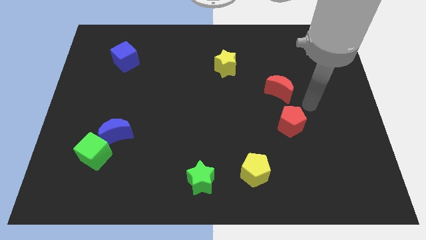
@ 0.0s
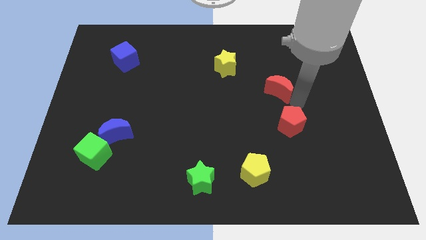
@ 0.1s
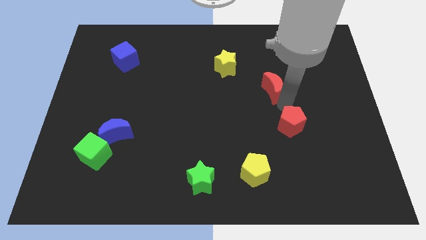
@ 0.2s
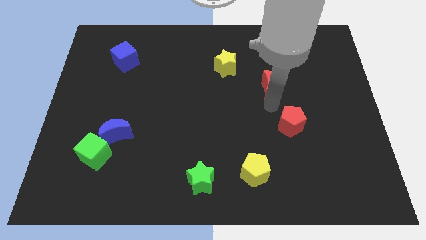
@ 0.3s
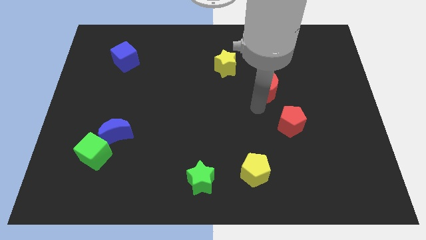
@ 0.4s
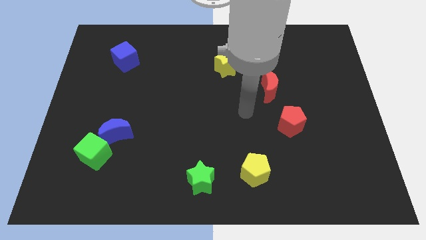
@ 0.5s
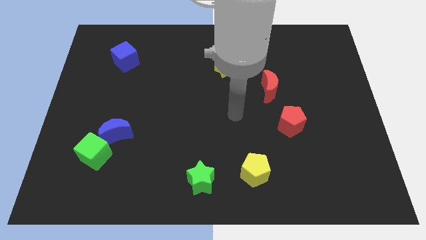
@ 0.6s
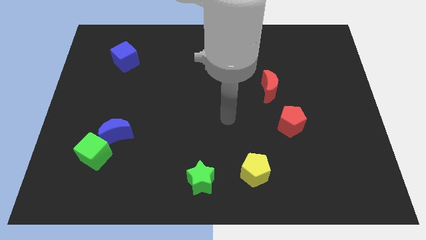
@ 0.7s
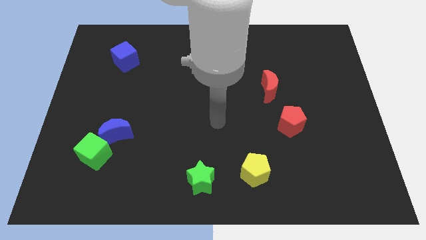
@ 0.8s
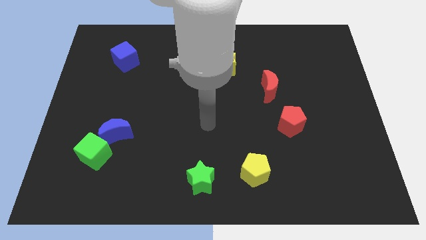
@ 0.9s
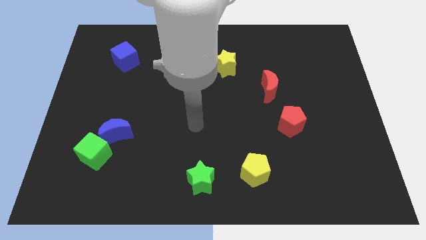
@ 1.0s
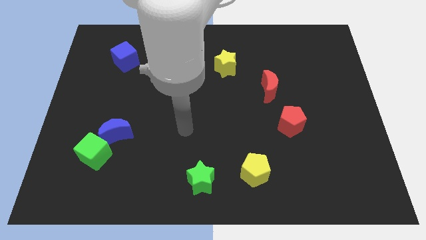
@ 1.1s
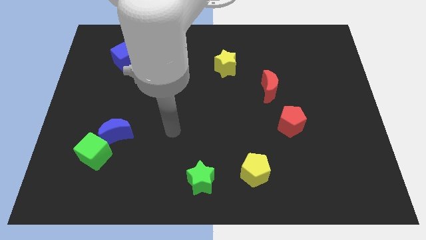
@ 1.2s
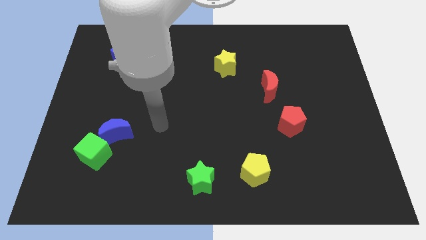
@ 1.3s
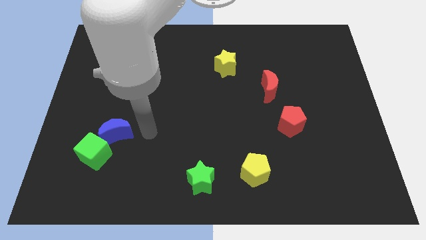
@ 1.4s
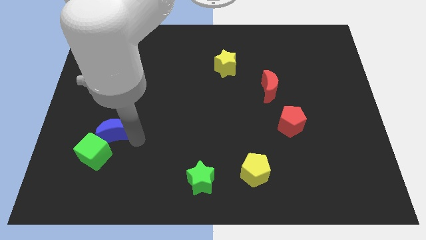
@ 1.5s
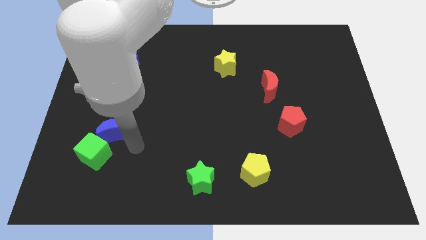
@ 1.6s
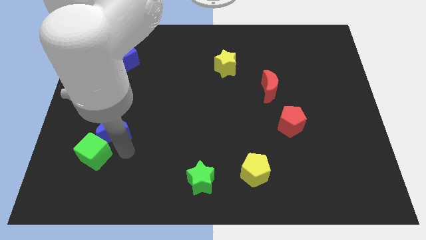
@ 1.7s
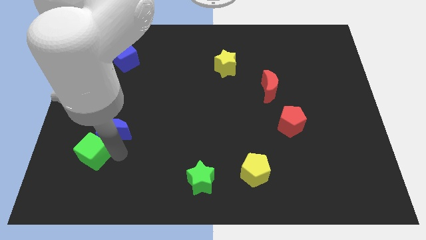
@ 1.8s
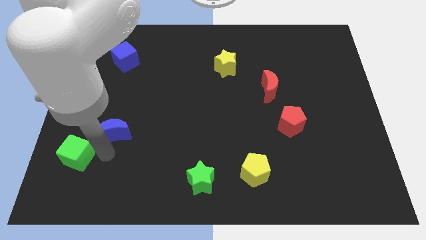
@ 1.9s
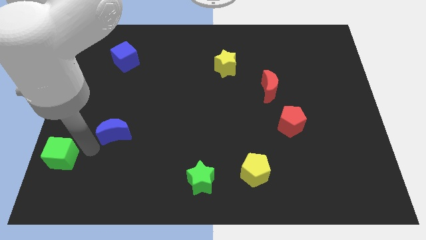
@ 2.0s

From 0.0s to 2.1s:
move the blue moon away from the green cube

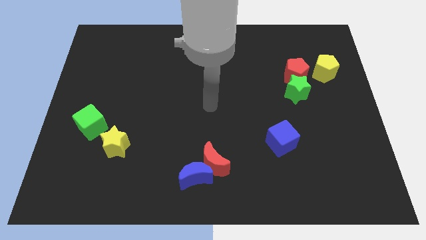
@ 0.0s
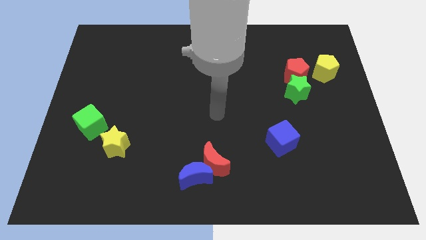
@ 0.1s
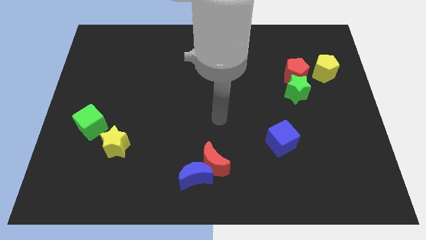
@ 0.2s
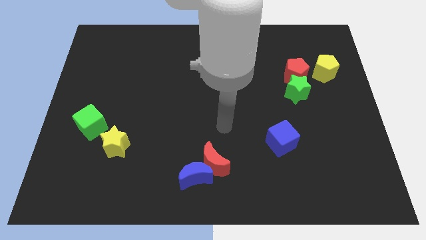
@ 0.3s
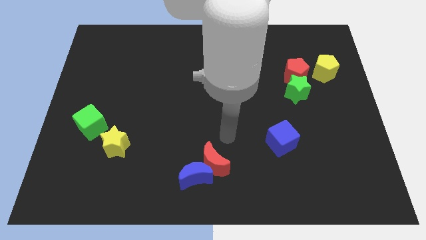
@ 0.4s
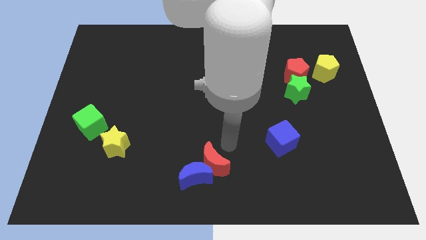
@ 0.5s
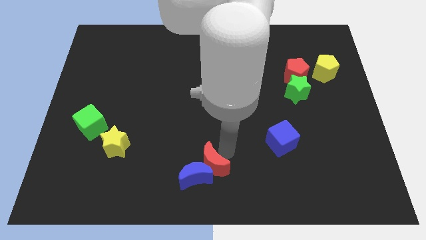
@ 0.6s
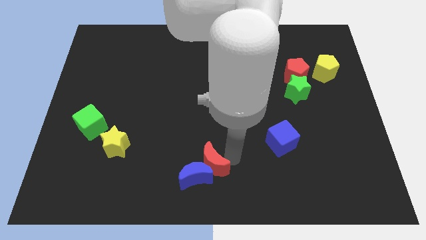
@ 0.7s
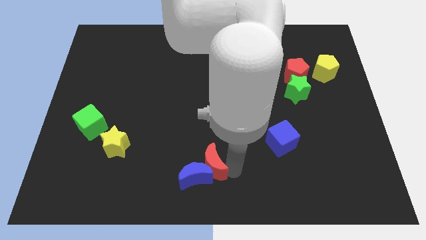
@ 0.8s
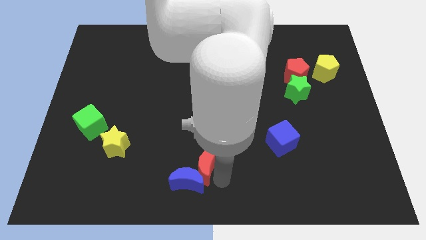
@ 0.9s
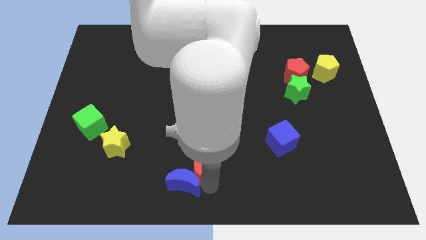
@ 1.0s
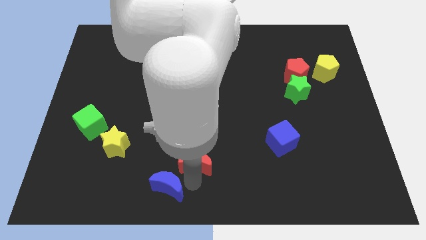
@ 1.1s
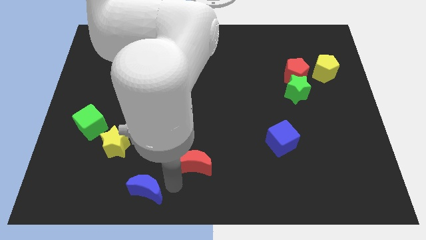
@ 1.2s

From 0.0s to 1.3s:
pull the red moon apart from the blue moon

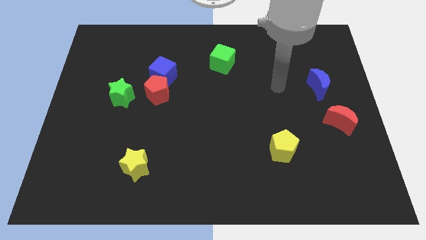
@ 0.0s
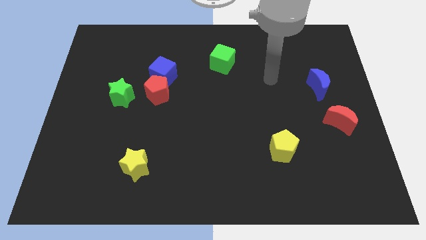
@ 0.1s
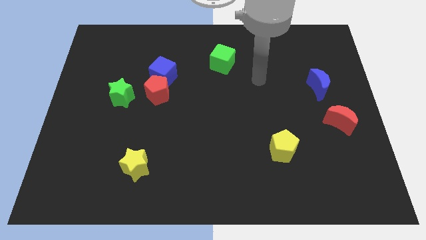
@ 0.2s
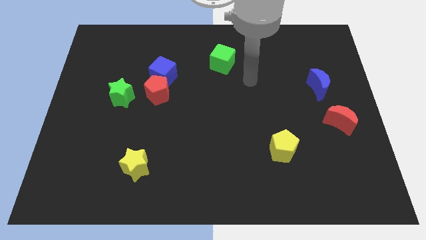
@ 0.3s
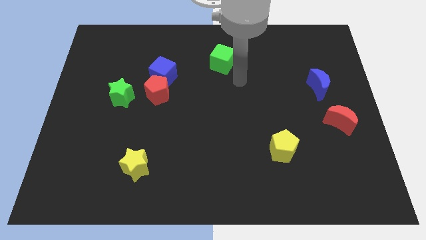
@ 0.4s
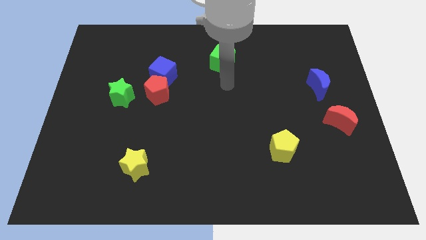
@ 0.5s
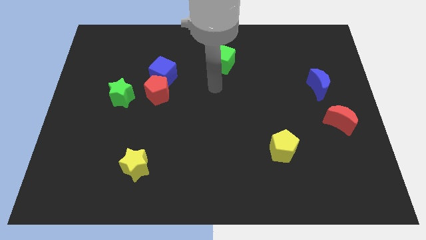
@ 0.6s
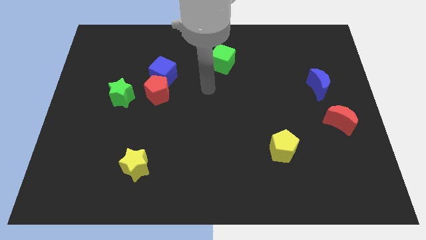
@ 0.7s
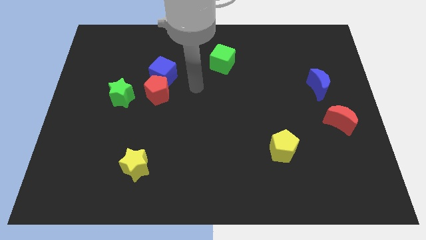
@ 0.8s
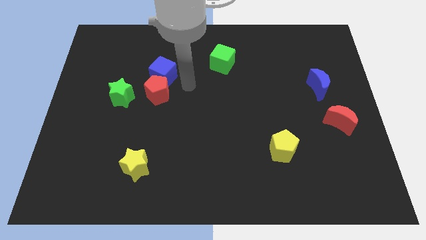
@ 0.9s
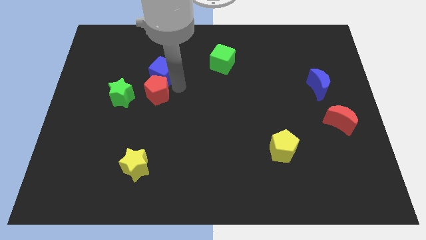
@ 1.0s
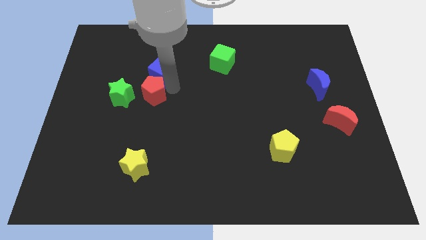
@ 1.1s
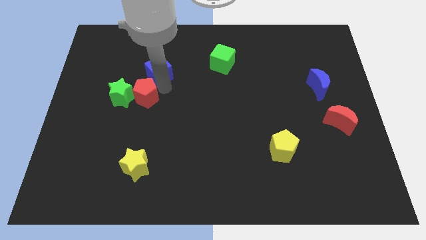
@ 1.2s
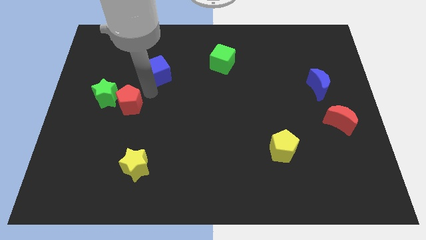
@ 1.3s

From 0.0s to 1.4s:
separate the blue cube from the red pentagon

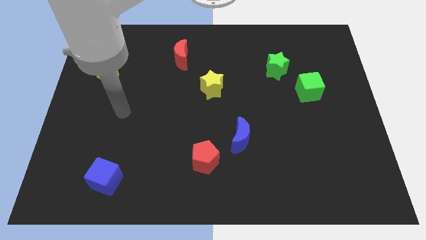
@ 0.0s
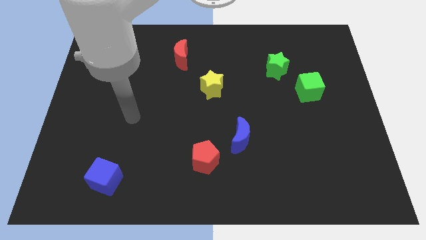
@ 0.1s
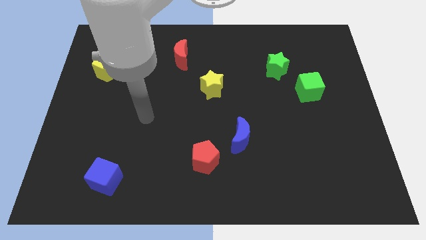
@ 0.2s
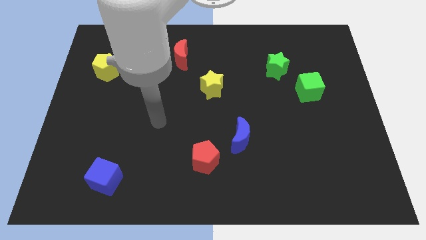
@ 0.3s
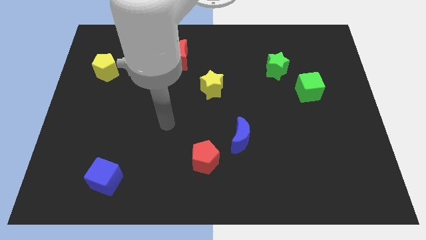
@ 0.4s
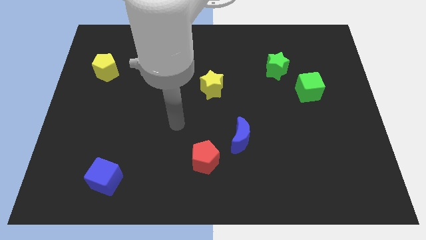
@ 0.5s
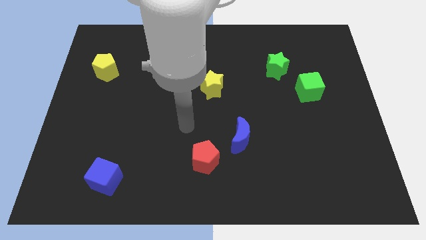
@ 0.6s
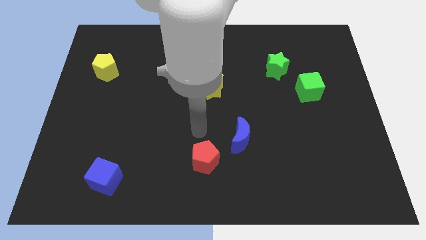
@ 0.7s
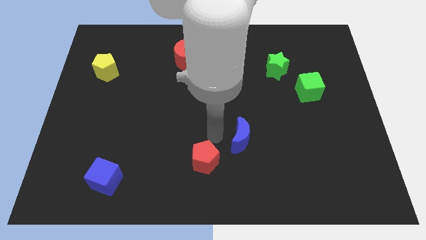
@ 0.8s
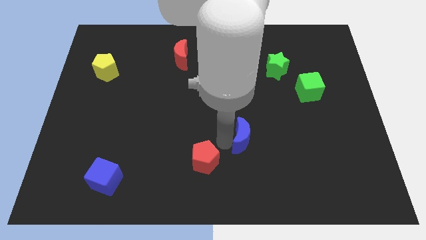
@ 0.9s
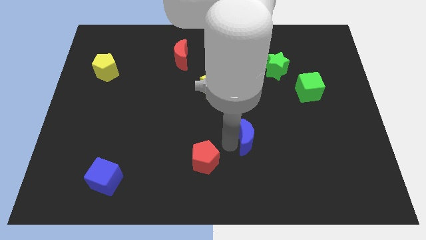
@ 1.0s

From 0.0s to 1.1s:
move the red pentagon away from the blue moon

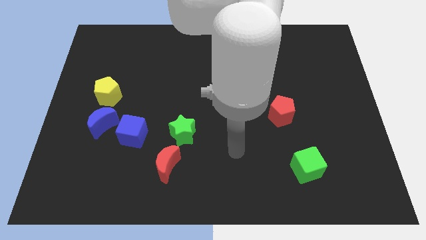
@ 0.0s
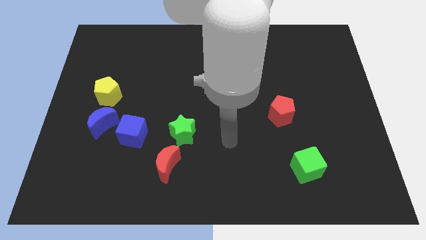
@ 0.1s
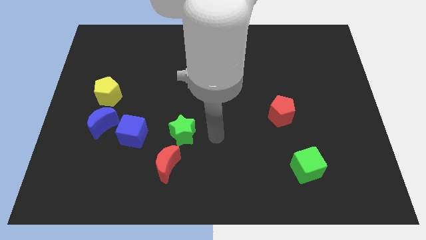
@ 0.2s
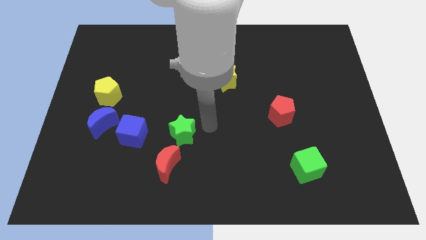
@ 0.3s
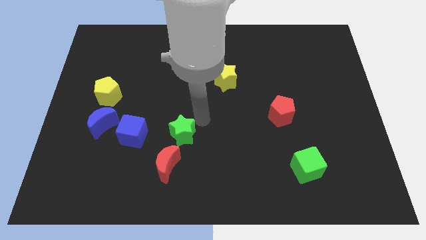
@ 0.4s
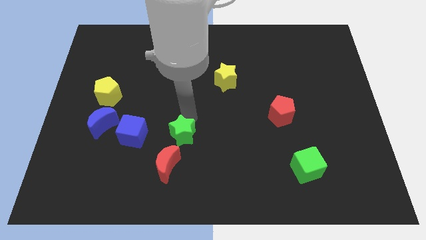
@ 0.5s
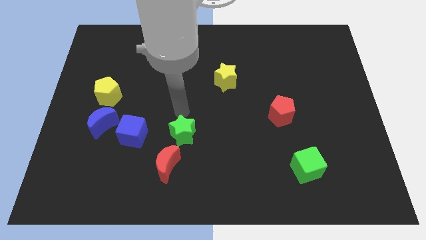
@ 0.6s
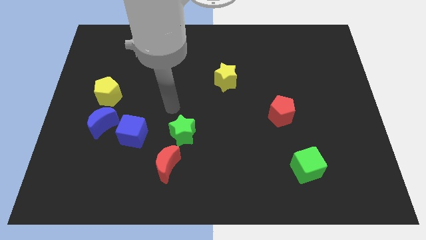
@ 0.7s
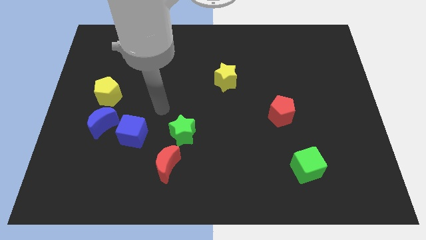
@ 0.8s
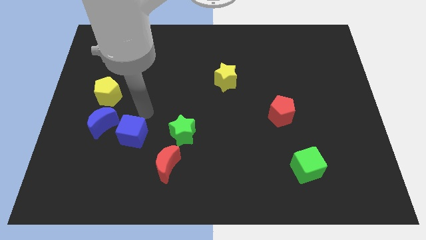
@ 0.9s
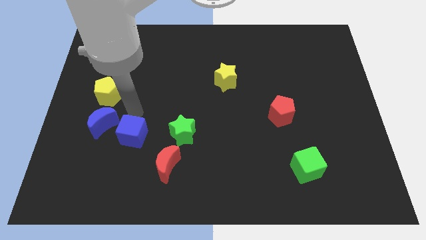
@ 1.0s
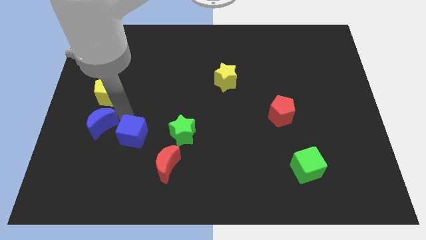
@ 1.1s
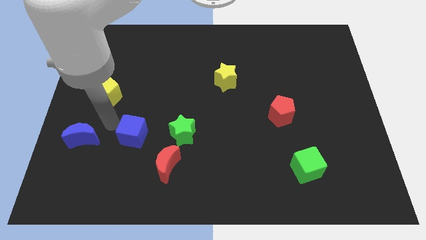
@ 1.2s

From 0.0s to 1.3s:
separate the blue cube from the blue moon

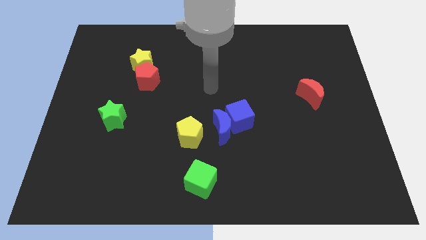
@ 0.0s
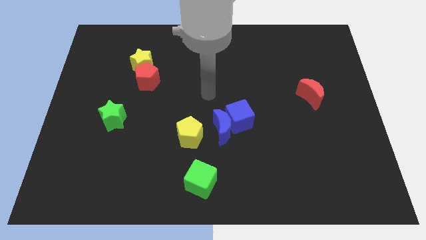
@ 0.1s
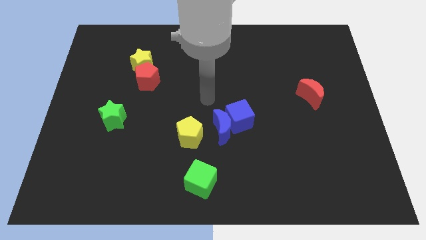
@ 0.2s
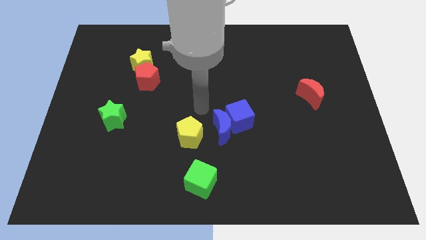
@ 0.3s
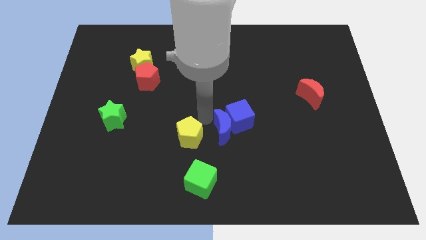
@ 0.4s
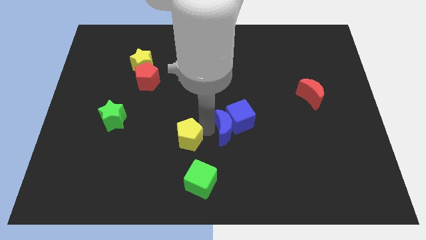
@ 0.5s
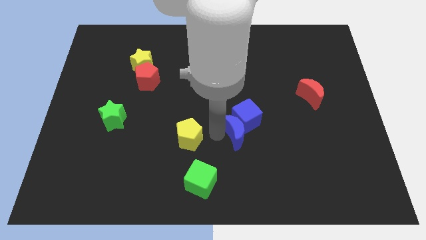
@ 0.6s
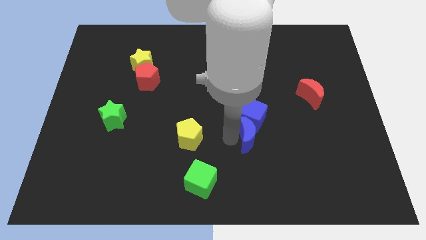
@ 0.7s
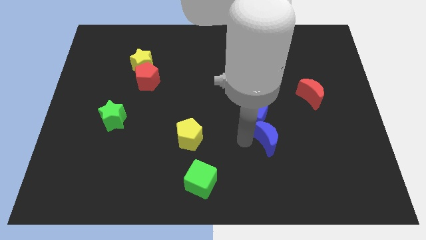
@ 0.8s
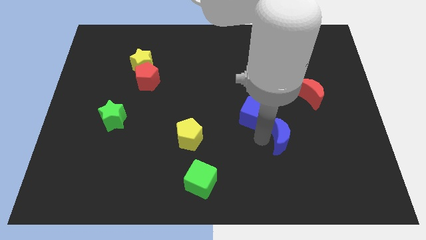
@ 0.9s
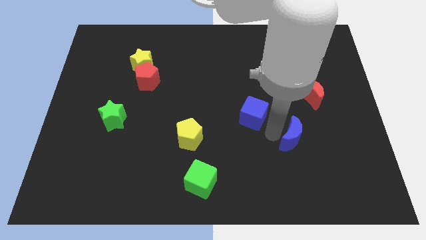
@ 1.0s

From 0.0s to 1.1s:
pull the blue cube apart from the blue moon

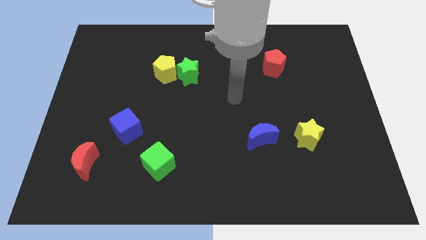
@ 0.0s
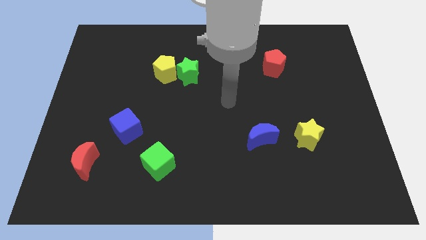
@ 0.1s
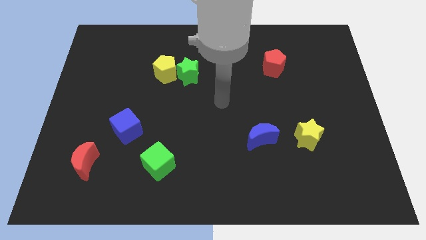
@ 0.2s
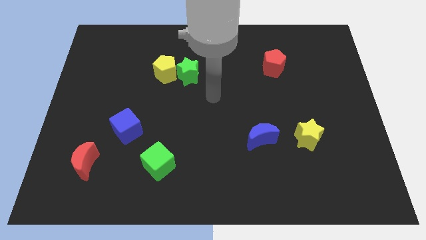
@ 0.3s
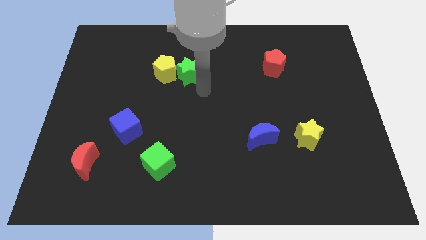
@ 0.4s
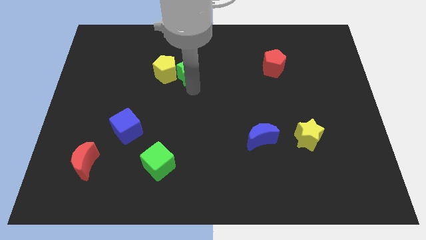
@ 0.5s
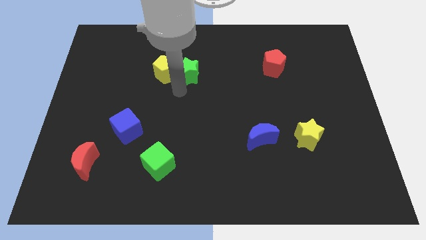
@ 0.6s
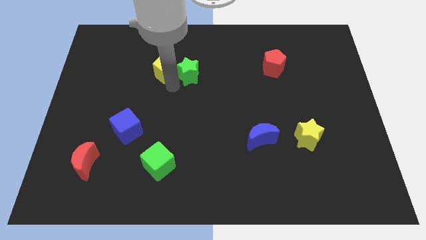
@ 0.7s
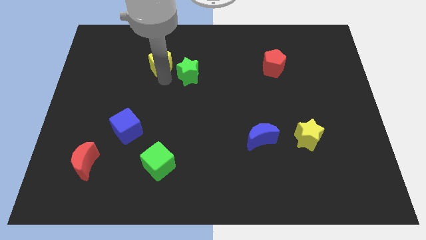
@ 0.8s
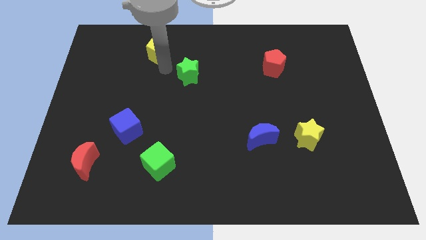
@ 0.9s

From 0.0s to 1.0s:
pull the green star apart from the yellow pentagon
